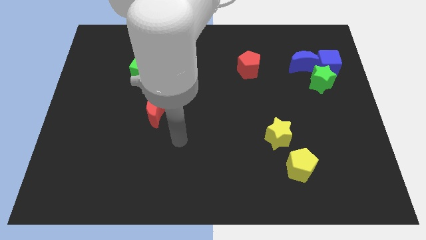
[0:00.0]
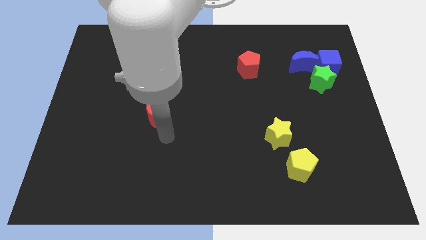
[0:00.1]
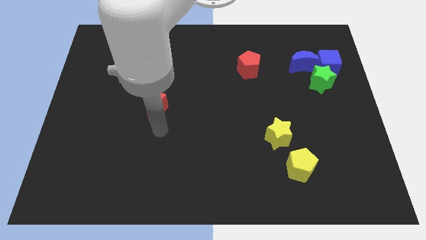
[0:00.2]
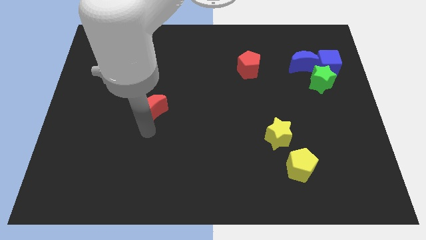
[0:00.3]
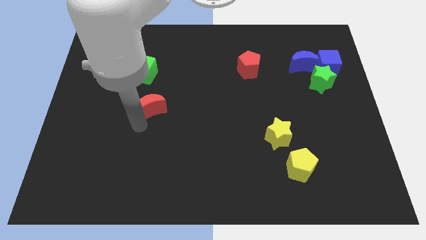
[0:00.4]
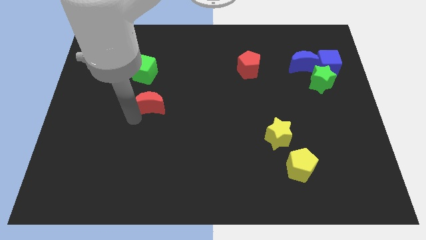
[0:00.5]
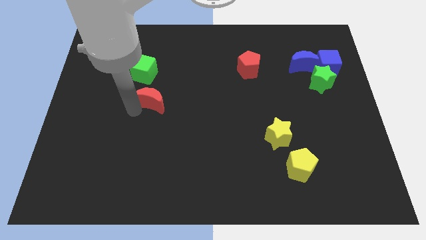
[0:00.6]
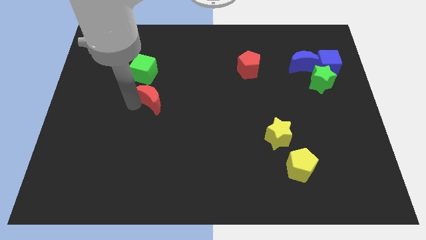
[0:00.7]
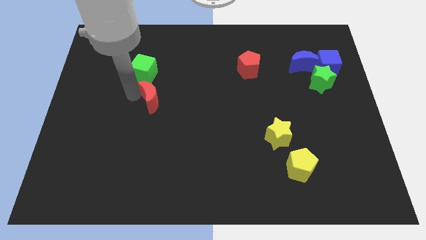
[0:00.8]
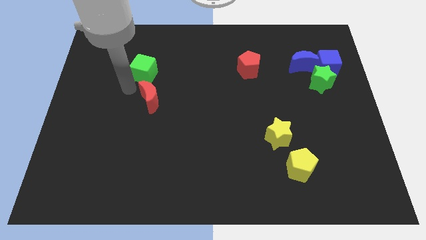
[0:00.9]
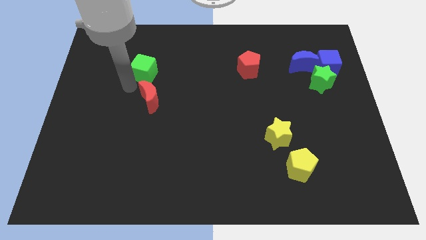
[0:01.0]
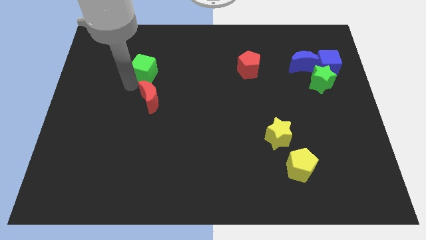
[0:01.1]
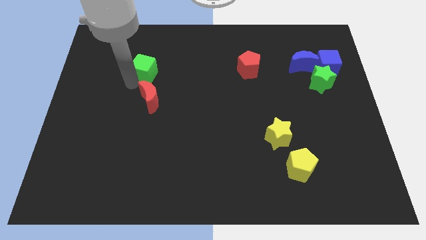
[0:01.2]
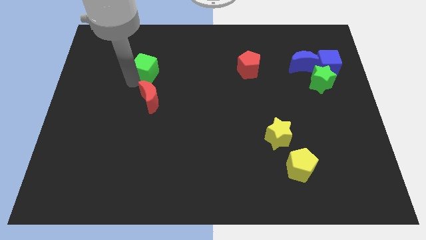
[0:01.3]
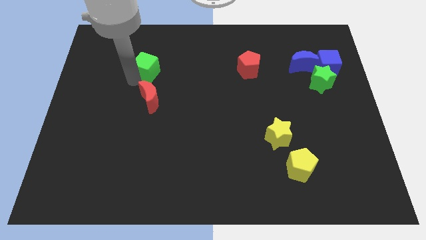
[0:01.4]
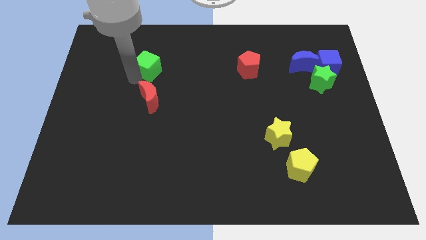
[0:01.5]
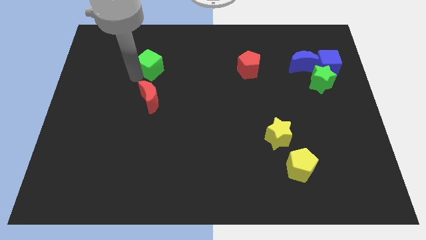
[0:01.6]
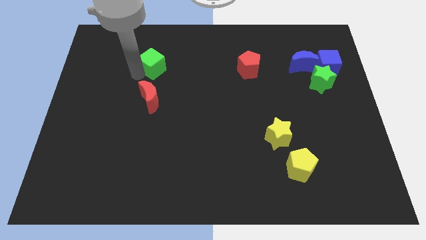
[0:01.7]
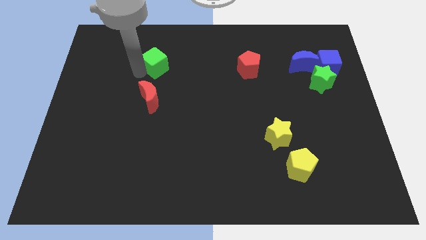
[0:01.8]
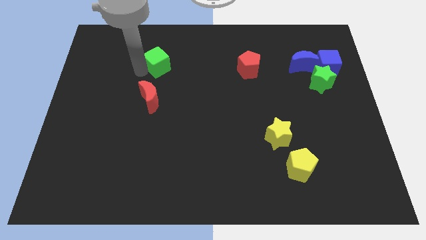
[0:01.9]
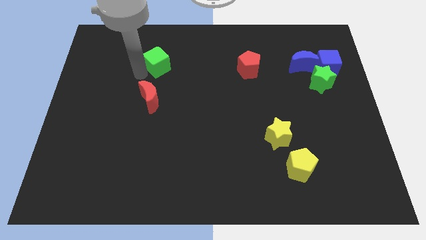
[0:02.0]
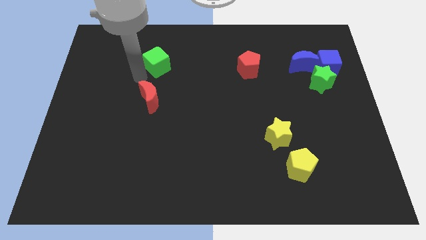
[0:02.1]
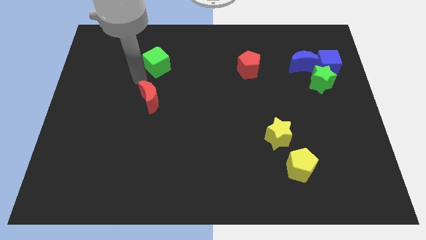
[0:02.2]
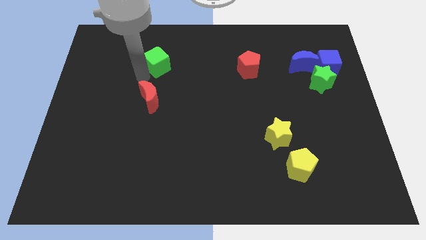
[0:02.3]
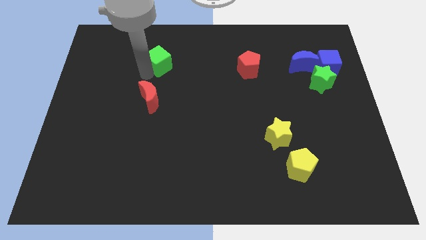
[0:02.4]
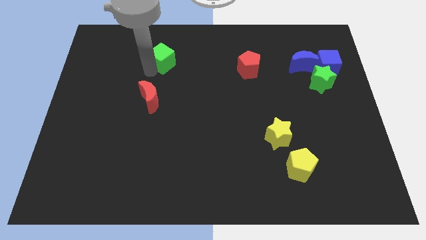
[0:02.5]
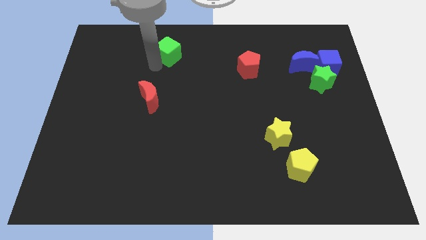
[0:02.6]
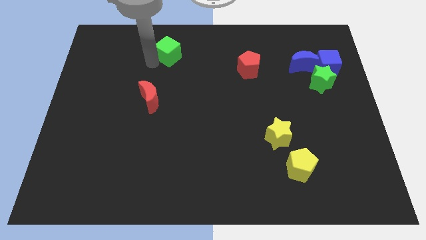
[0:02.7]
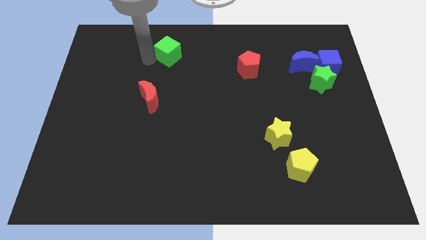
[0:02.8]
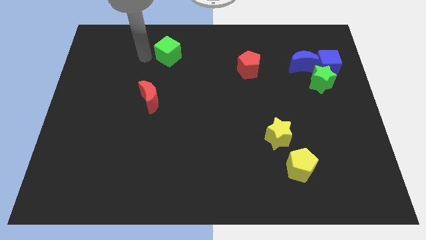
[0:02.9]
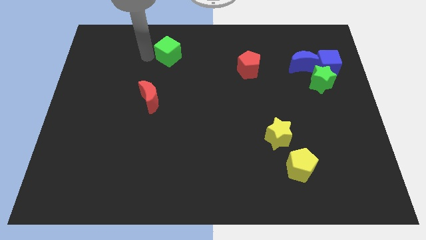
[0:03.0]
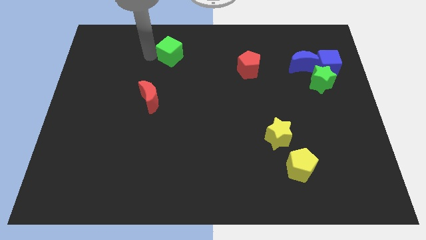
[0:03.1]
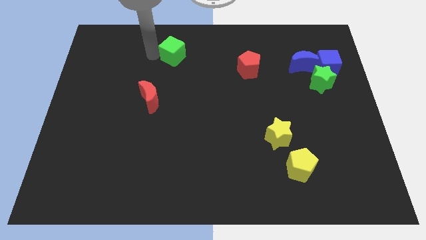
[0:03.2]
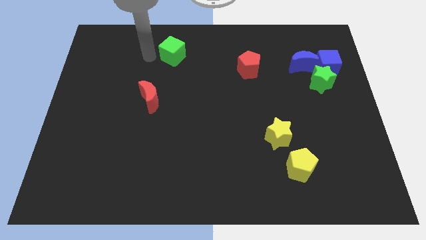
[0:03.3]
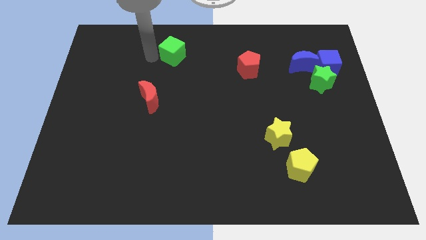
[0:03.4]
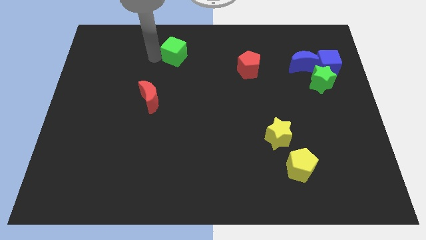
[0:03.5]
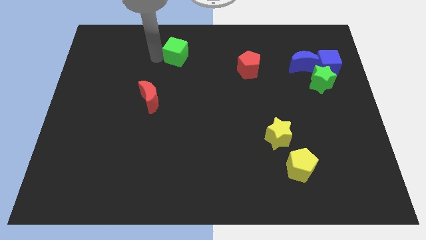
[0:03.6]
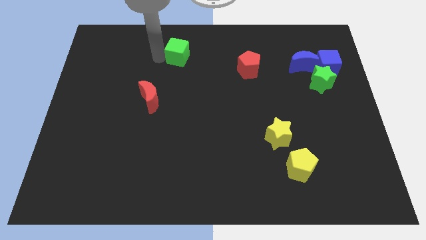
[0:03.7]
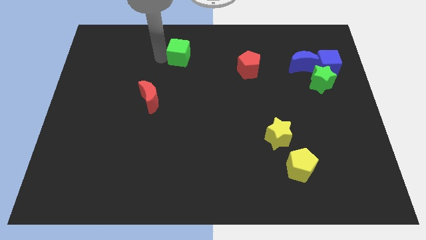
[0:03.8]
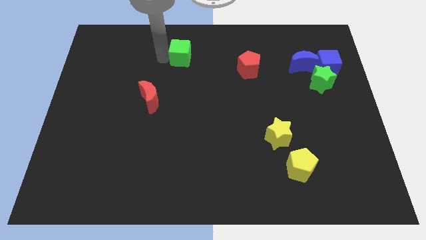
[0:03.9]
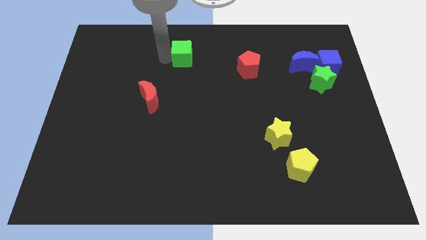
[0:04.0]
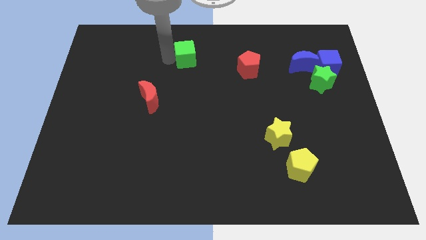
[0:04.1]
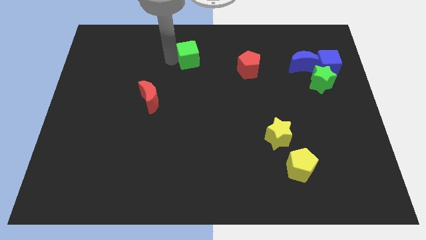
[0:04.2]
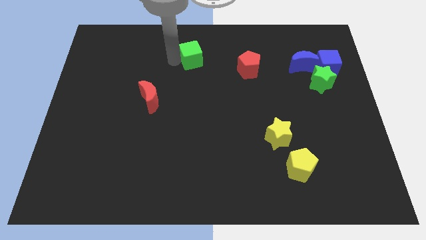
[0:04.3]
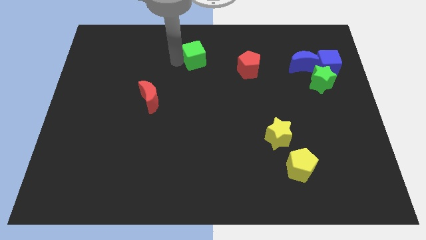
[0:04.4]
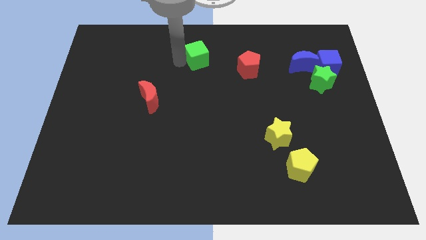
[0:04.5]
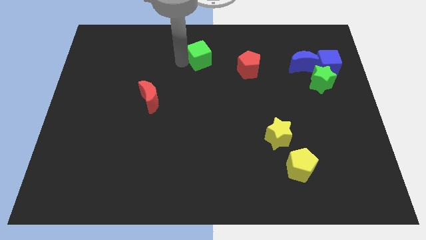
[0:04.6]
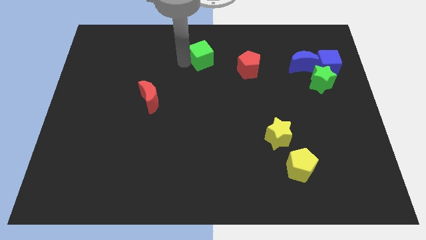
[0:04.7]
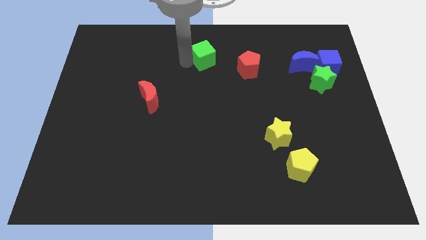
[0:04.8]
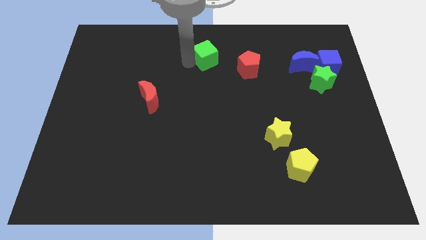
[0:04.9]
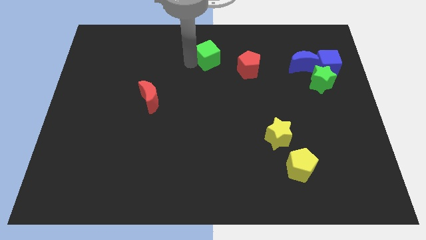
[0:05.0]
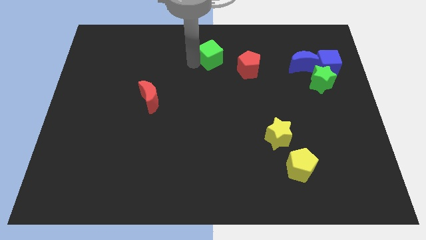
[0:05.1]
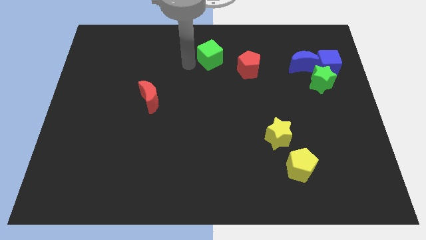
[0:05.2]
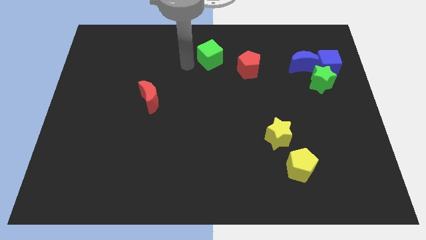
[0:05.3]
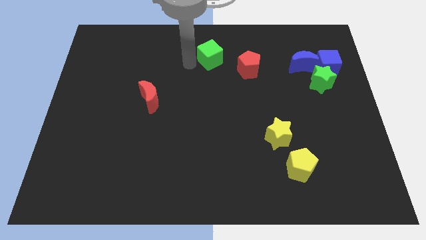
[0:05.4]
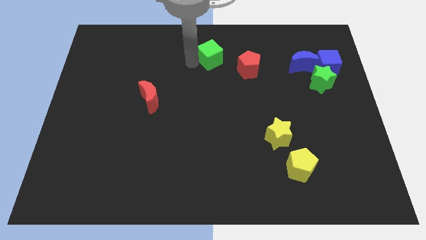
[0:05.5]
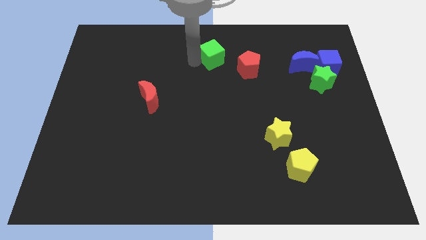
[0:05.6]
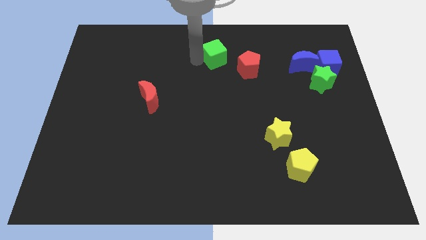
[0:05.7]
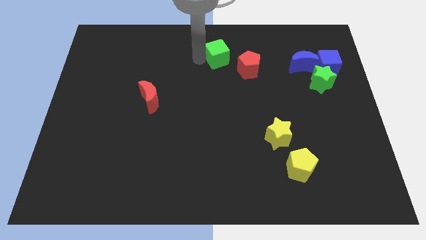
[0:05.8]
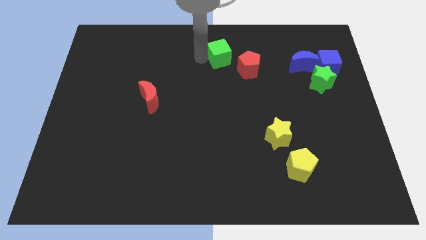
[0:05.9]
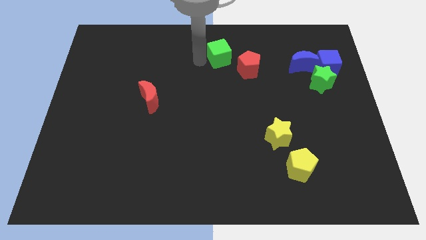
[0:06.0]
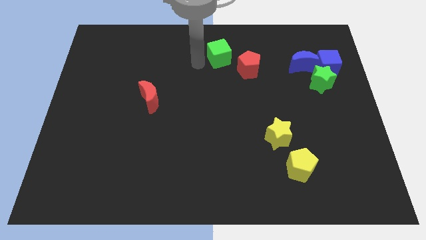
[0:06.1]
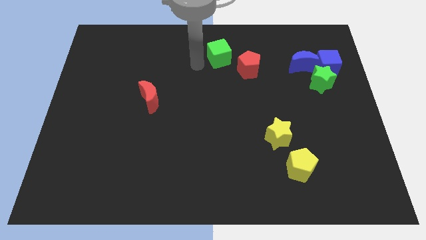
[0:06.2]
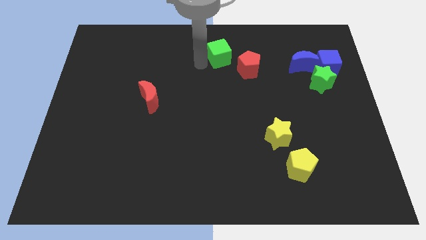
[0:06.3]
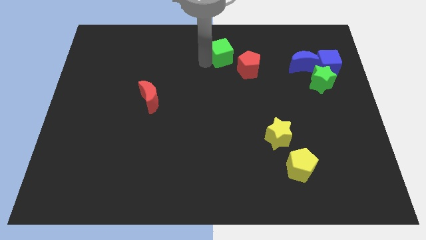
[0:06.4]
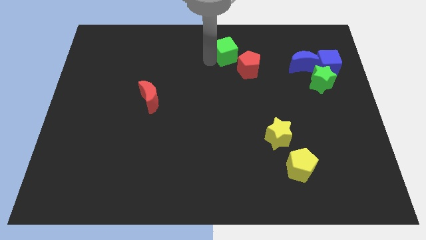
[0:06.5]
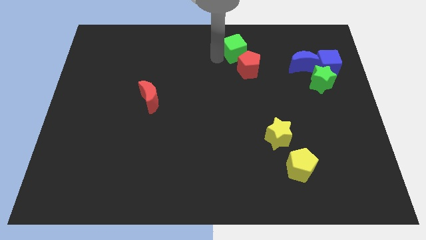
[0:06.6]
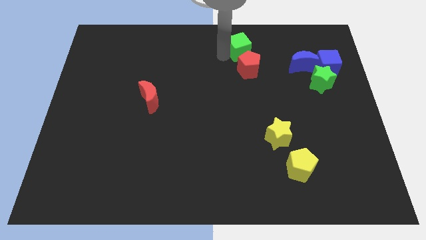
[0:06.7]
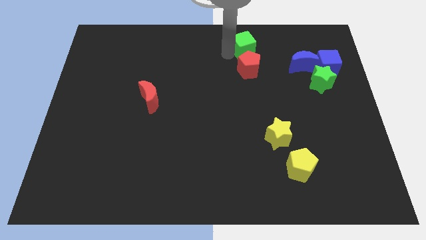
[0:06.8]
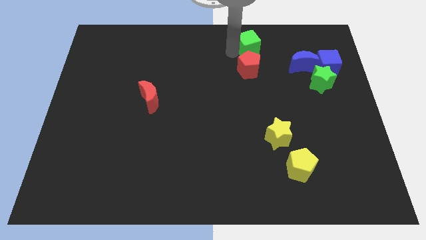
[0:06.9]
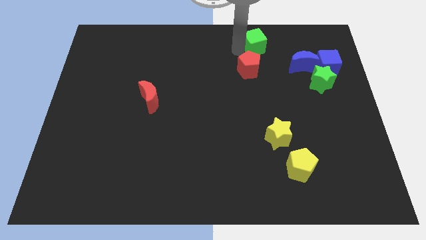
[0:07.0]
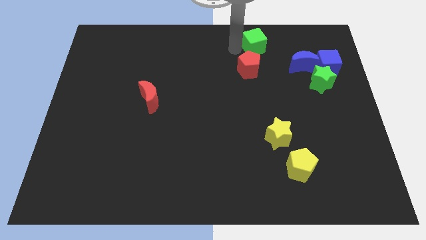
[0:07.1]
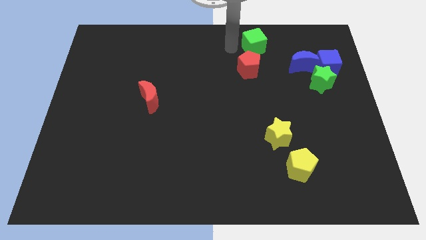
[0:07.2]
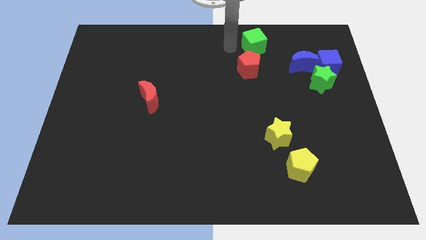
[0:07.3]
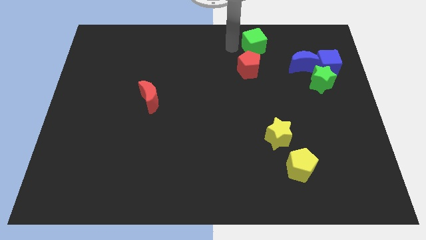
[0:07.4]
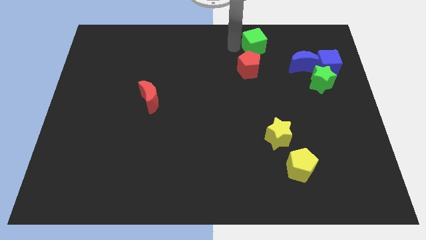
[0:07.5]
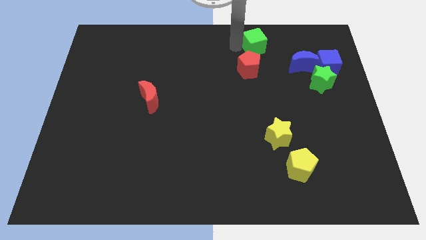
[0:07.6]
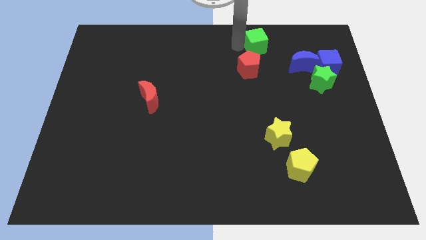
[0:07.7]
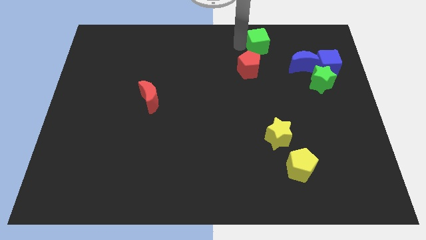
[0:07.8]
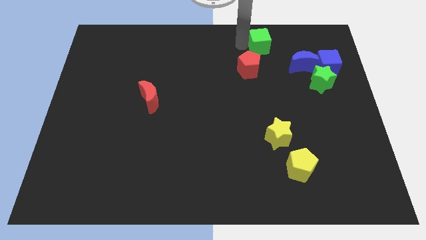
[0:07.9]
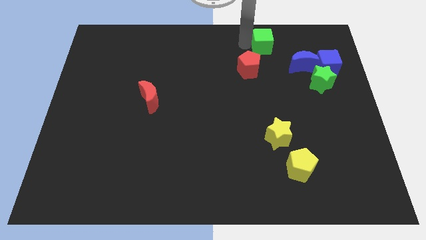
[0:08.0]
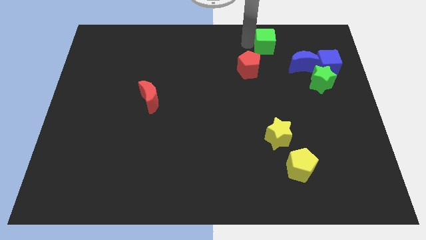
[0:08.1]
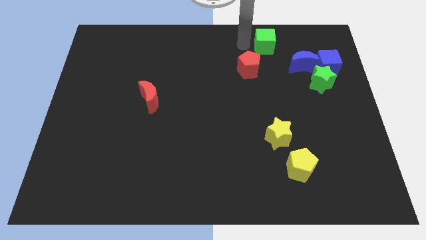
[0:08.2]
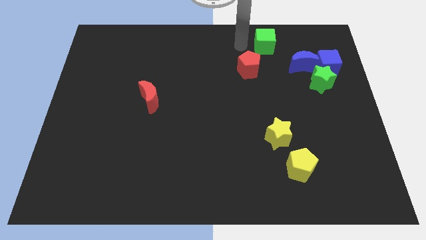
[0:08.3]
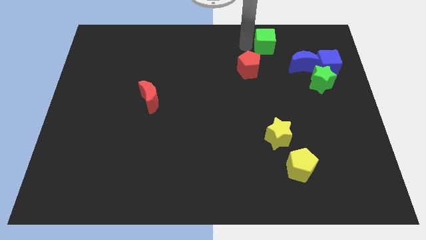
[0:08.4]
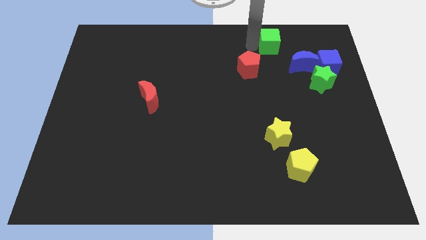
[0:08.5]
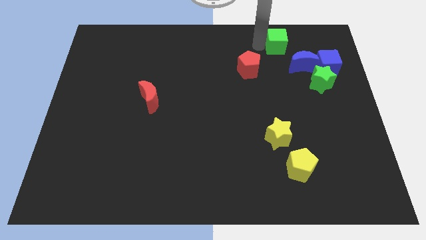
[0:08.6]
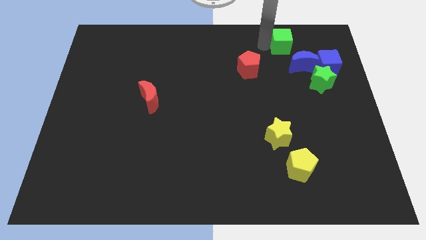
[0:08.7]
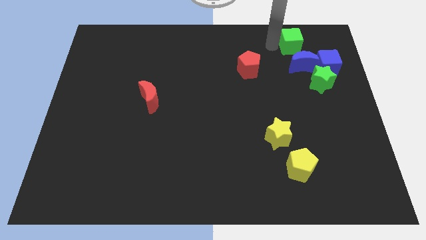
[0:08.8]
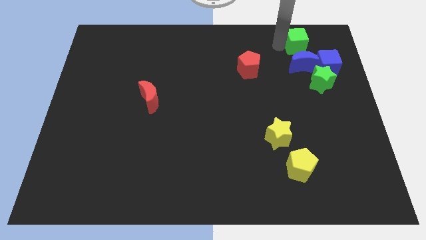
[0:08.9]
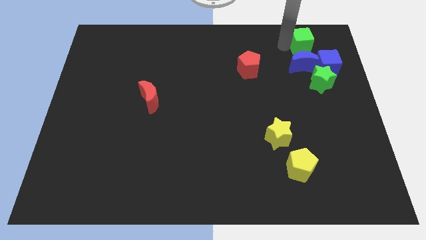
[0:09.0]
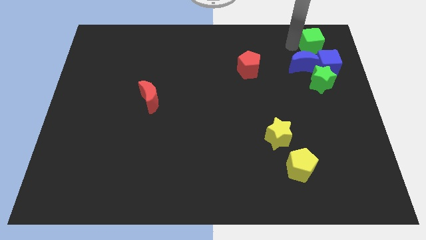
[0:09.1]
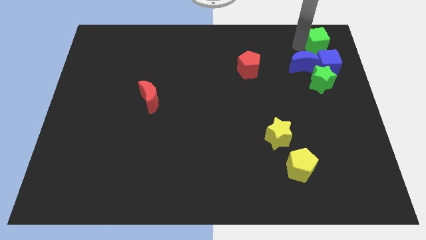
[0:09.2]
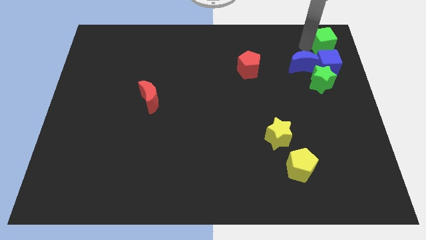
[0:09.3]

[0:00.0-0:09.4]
push the green cube to the top right of the board
